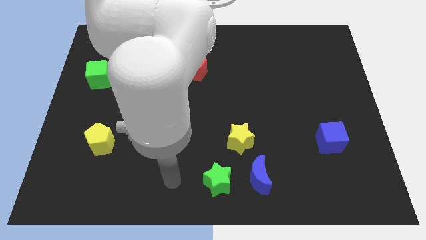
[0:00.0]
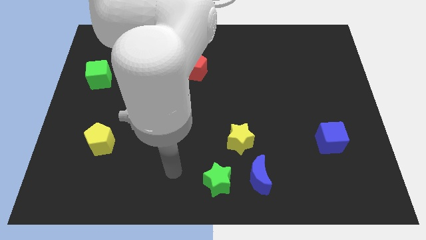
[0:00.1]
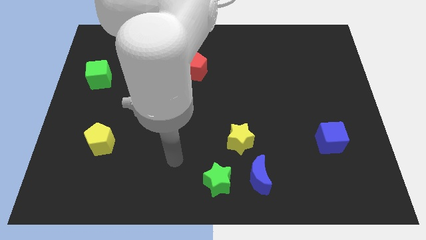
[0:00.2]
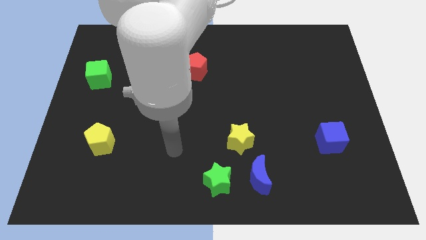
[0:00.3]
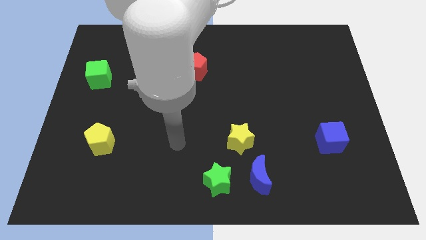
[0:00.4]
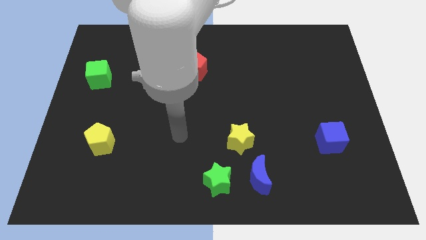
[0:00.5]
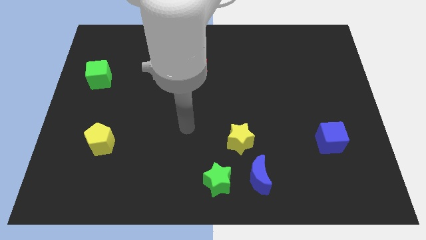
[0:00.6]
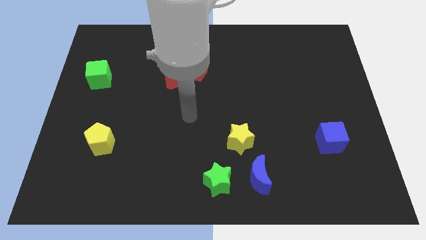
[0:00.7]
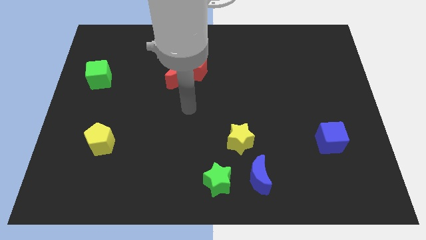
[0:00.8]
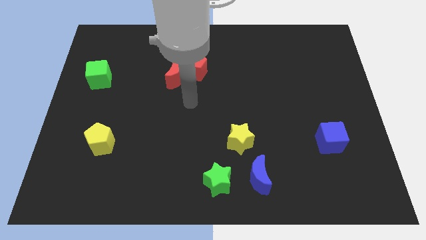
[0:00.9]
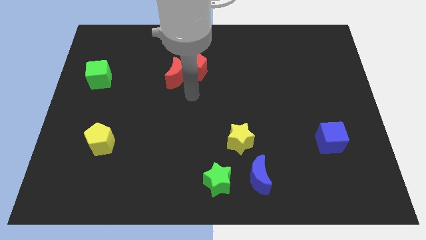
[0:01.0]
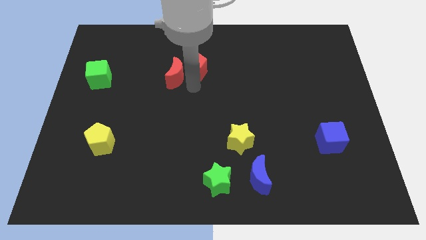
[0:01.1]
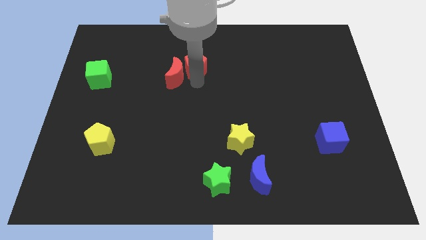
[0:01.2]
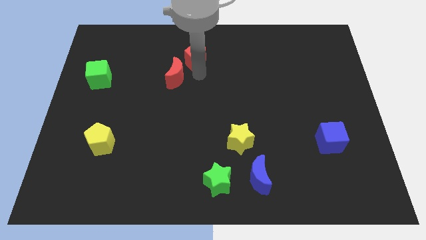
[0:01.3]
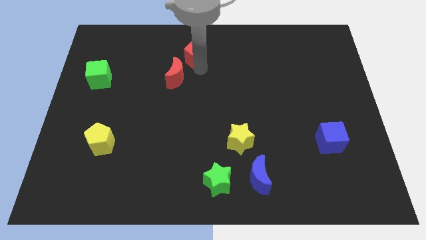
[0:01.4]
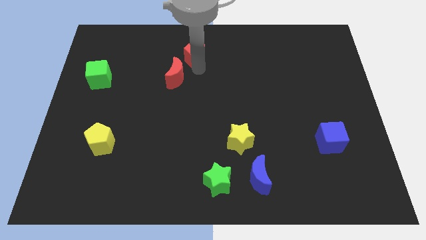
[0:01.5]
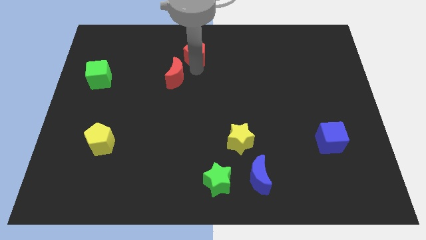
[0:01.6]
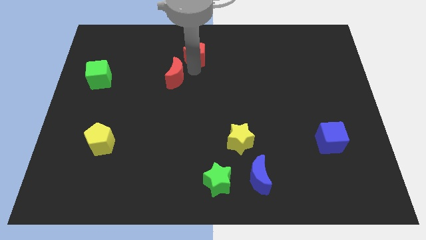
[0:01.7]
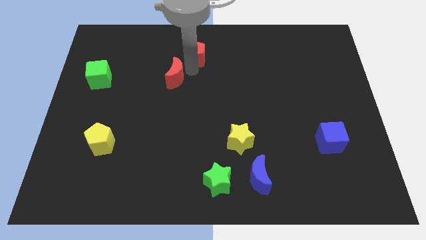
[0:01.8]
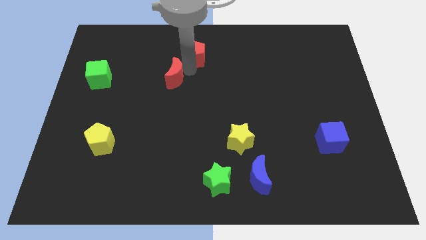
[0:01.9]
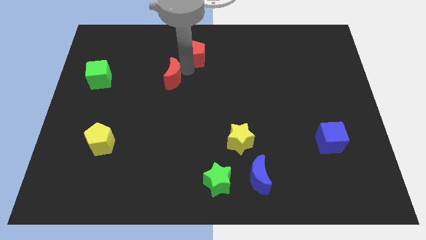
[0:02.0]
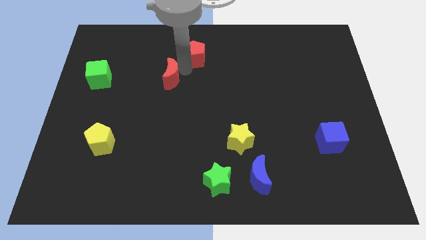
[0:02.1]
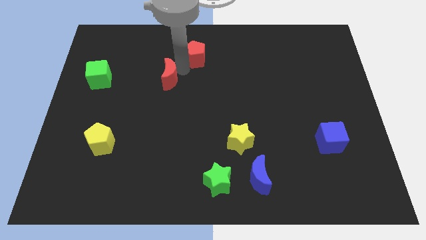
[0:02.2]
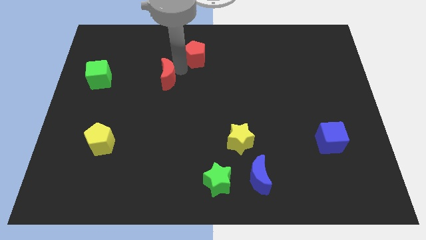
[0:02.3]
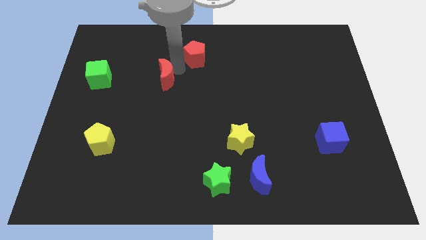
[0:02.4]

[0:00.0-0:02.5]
move the red moon away from the red pentagon

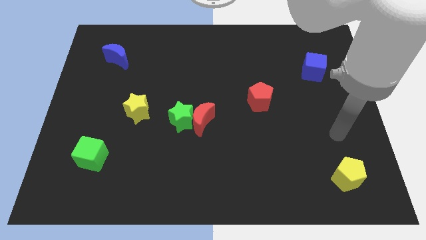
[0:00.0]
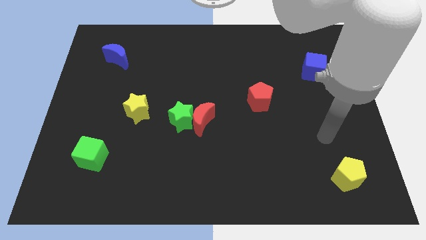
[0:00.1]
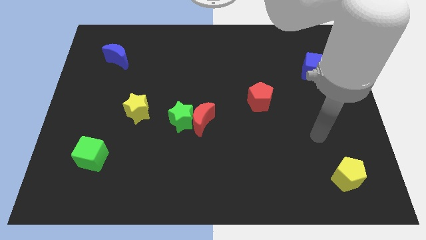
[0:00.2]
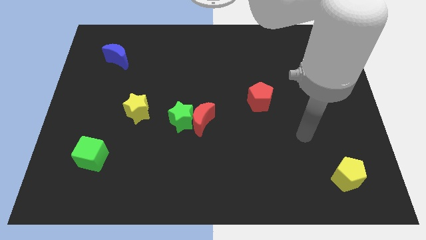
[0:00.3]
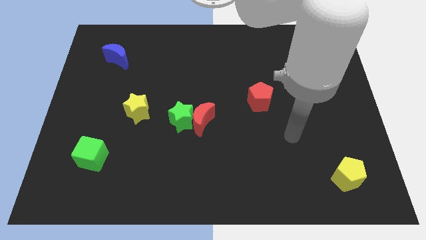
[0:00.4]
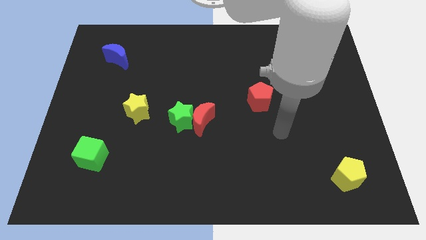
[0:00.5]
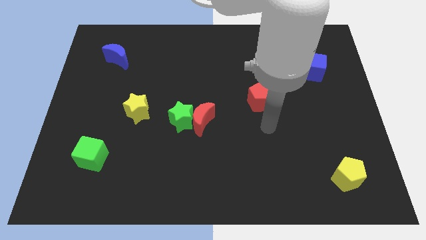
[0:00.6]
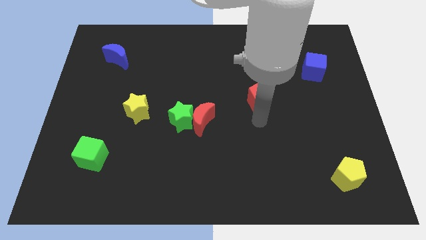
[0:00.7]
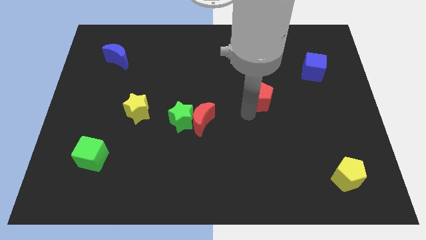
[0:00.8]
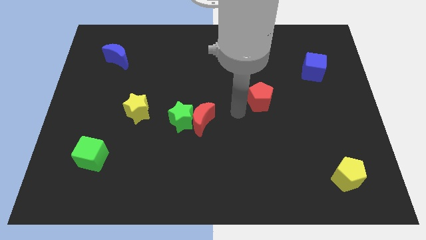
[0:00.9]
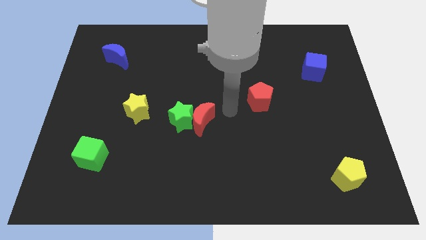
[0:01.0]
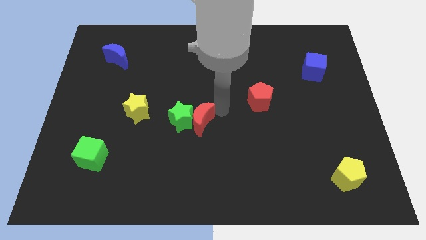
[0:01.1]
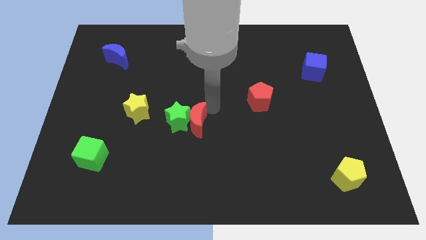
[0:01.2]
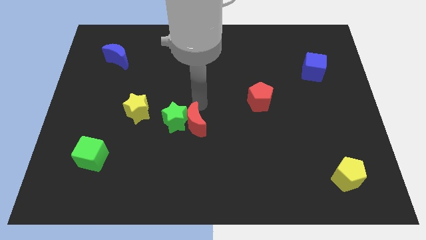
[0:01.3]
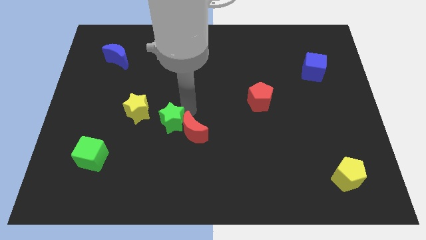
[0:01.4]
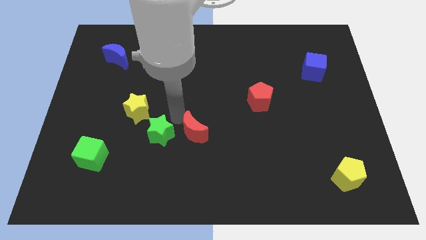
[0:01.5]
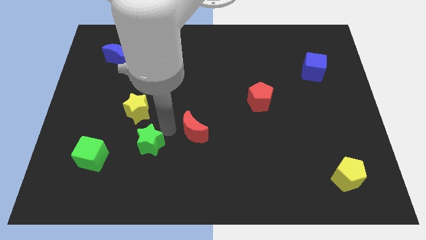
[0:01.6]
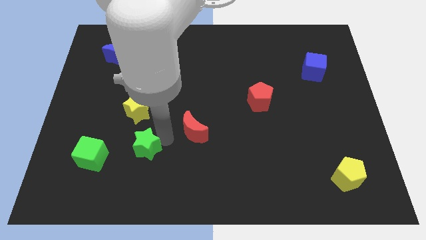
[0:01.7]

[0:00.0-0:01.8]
move the red moon away from the green star

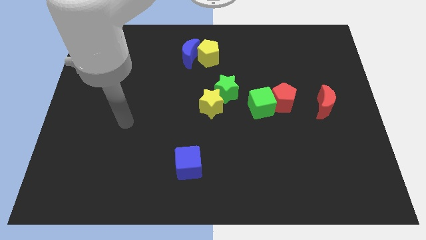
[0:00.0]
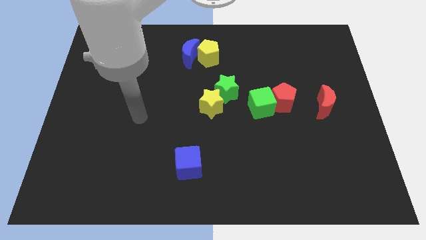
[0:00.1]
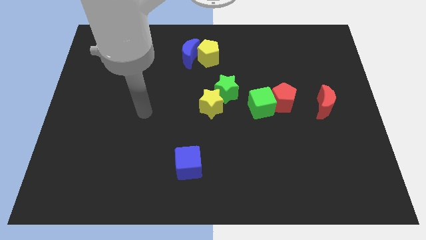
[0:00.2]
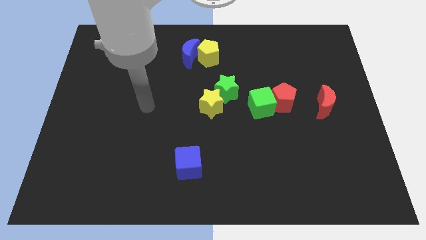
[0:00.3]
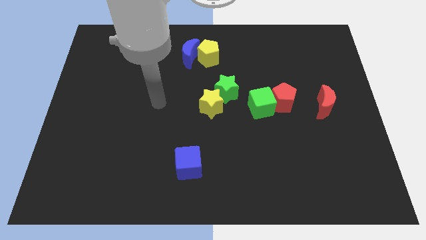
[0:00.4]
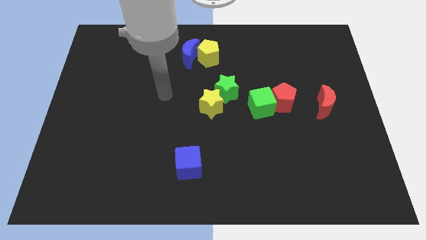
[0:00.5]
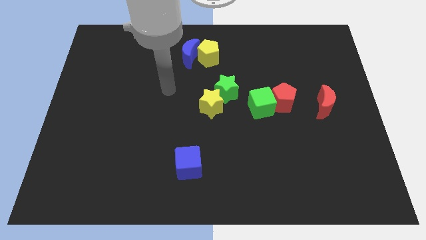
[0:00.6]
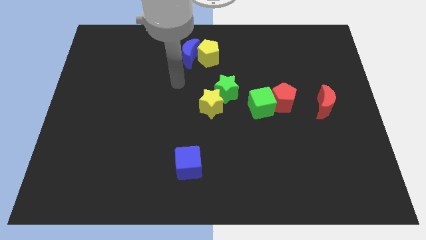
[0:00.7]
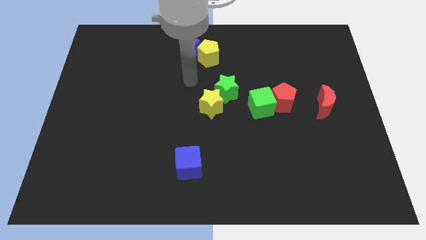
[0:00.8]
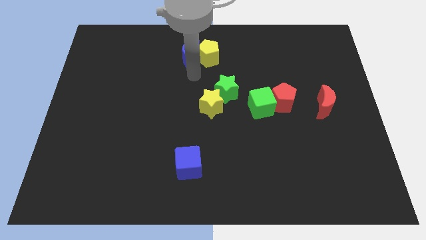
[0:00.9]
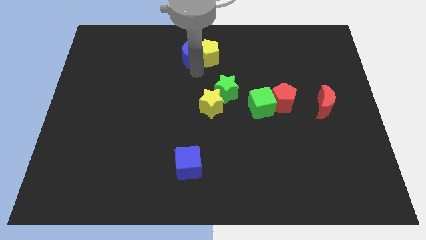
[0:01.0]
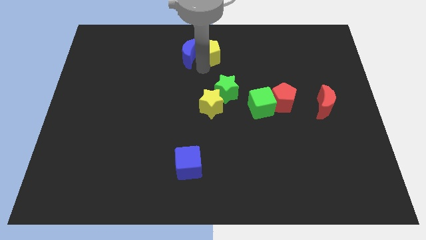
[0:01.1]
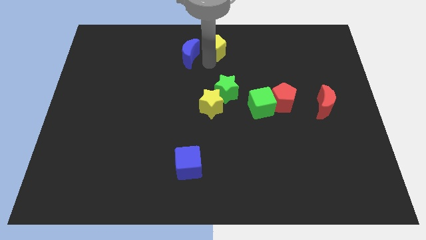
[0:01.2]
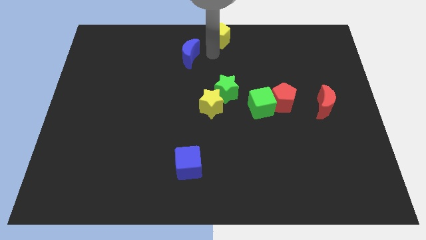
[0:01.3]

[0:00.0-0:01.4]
move the blue moon away from the yellow pentagon

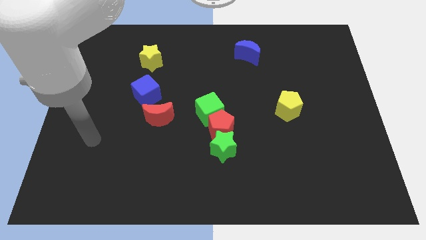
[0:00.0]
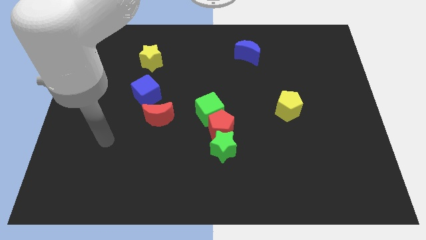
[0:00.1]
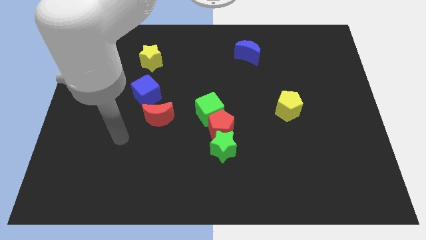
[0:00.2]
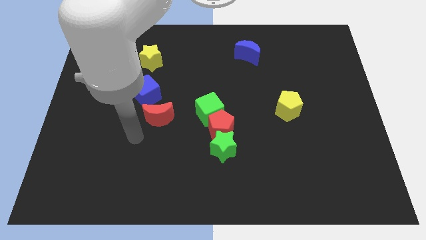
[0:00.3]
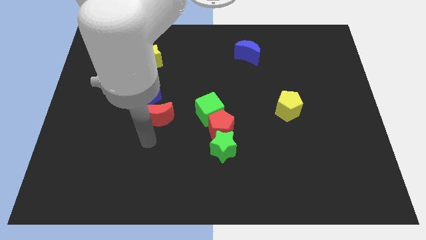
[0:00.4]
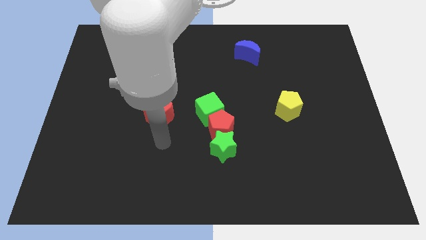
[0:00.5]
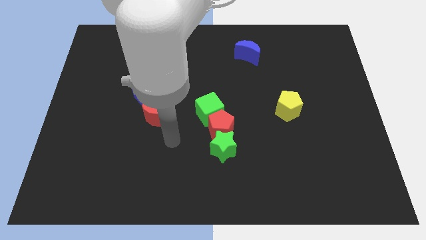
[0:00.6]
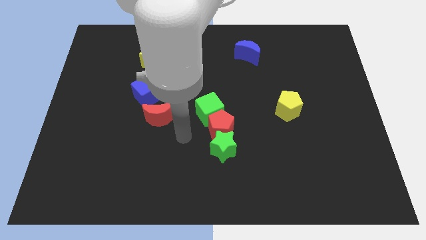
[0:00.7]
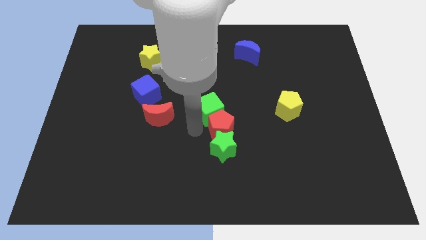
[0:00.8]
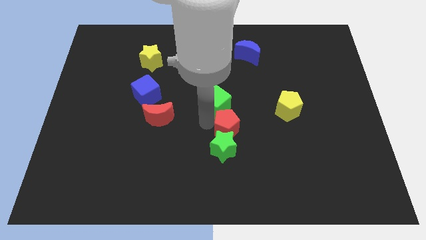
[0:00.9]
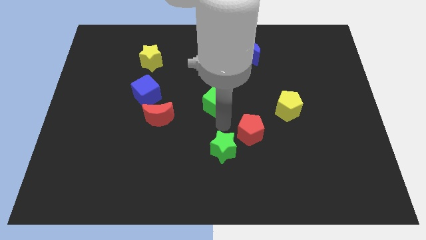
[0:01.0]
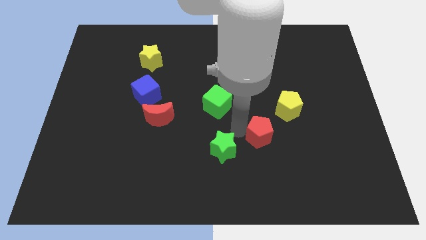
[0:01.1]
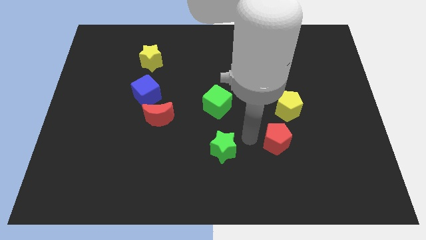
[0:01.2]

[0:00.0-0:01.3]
separate the green star from the red pentagon

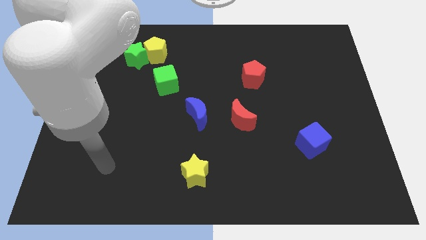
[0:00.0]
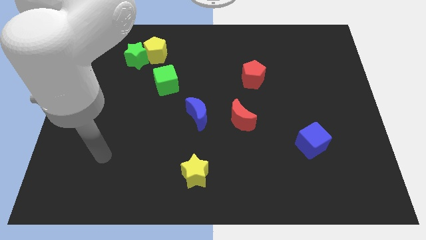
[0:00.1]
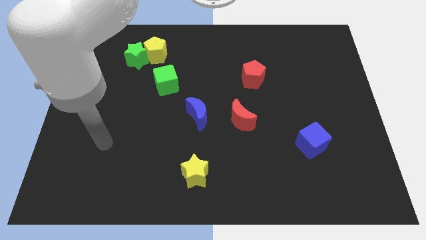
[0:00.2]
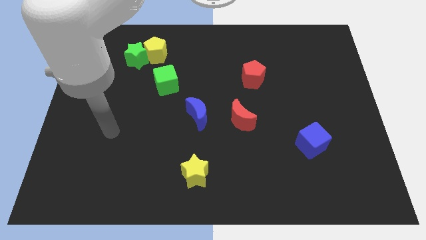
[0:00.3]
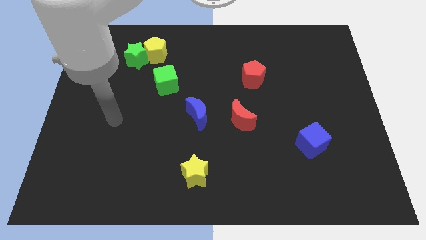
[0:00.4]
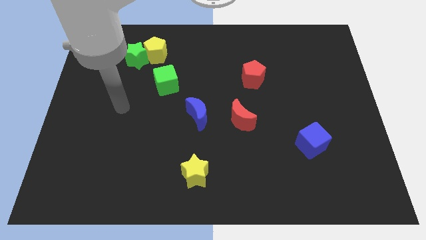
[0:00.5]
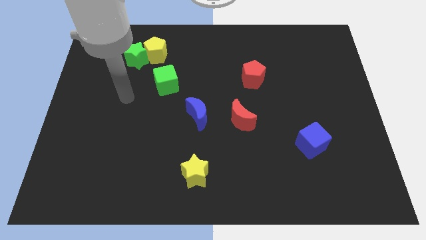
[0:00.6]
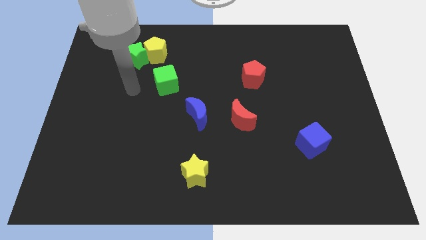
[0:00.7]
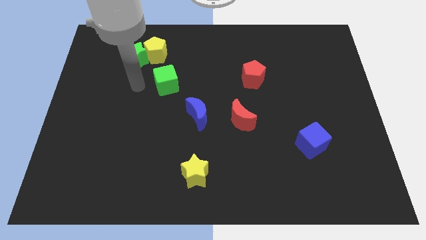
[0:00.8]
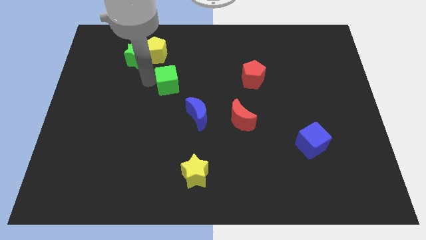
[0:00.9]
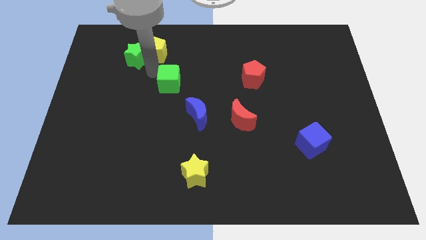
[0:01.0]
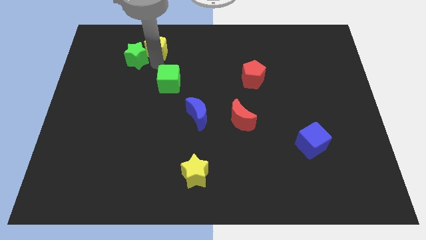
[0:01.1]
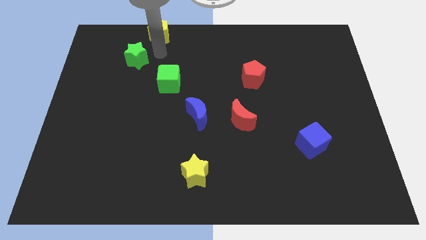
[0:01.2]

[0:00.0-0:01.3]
pull the green star apart from the yellow pentagon

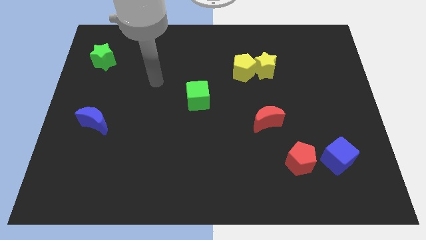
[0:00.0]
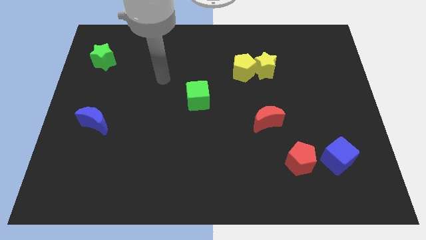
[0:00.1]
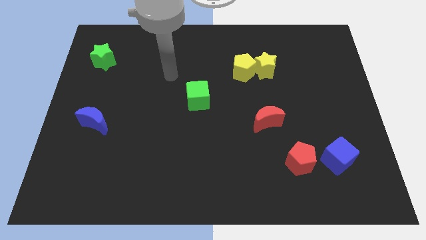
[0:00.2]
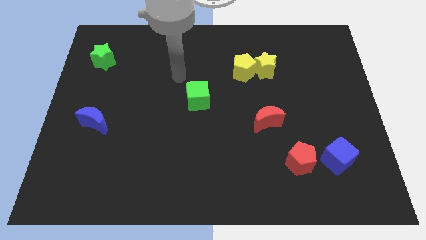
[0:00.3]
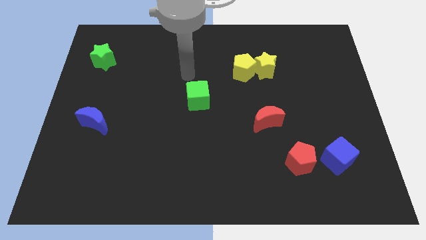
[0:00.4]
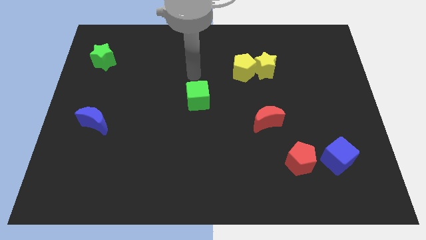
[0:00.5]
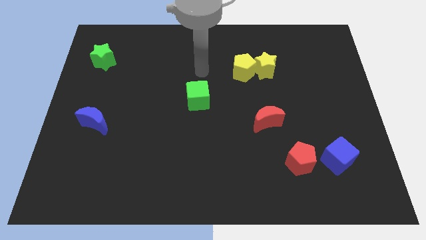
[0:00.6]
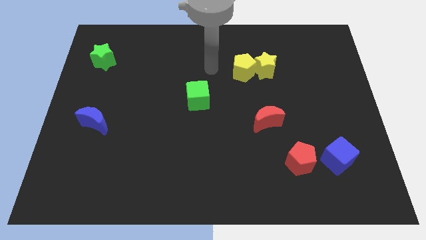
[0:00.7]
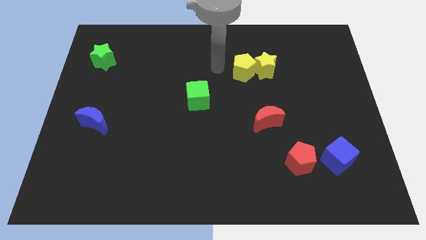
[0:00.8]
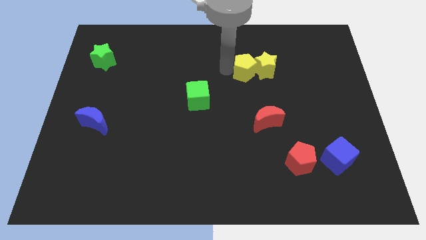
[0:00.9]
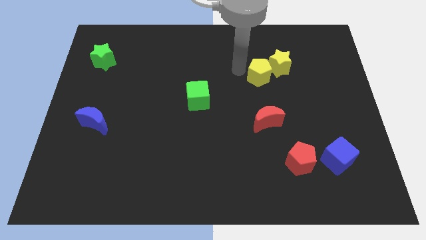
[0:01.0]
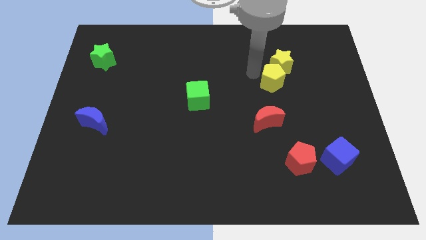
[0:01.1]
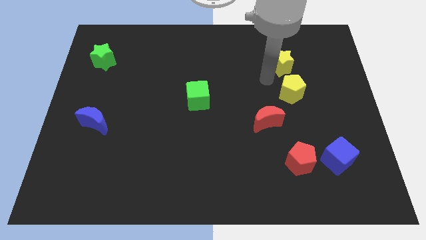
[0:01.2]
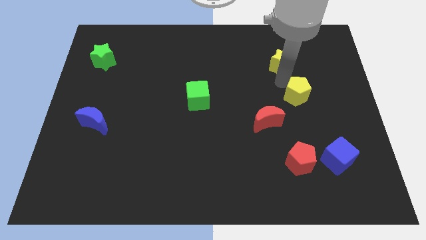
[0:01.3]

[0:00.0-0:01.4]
separate the yellow star from the yellow pentagon
